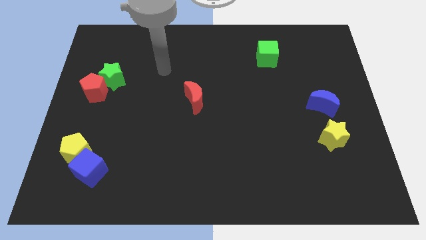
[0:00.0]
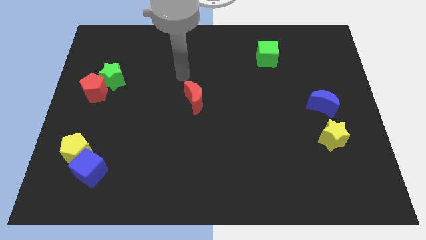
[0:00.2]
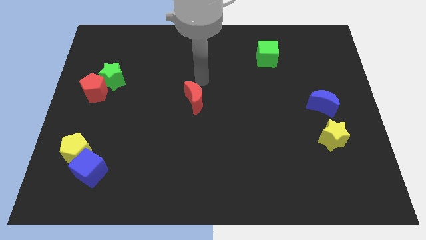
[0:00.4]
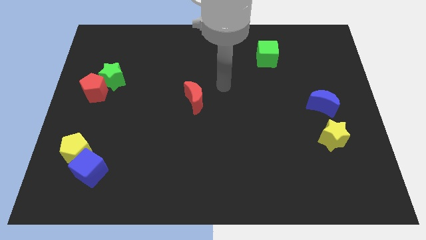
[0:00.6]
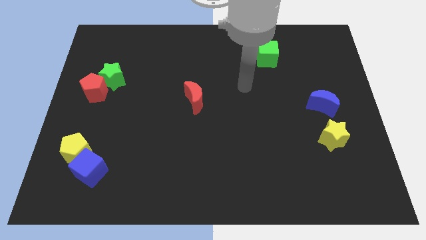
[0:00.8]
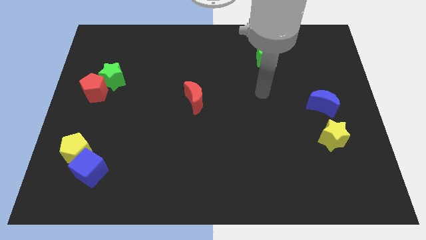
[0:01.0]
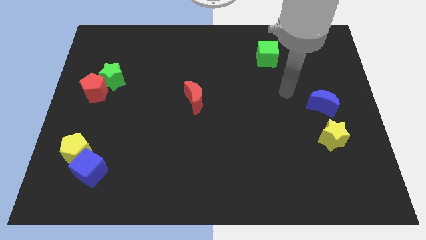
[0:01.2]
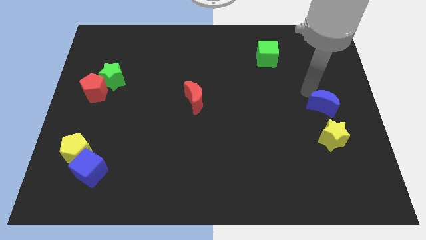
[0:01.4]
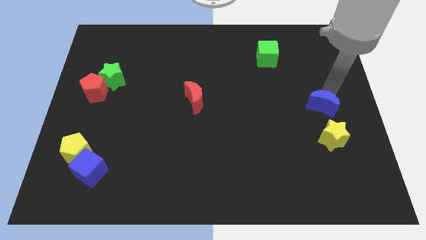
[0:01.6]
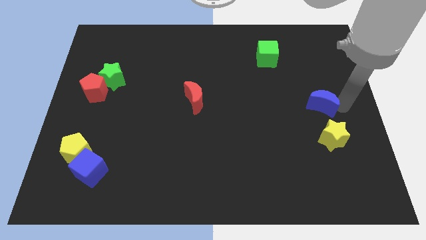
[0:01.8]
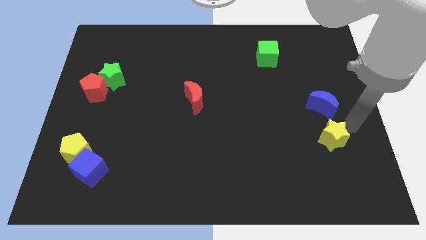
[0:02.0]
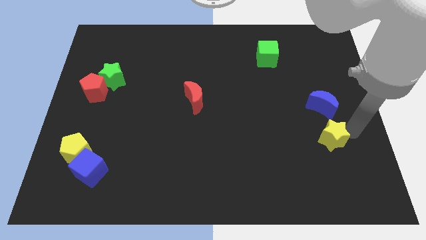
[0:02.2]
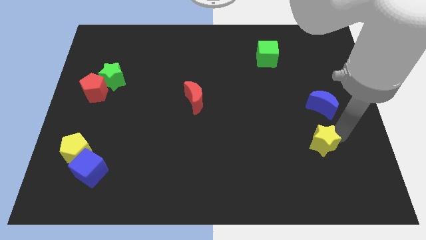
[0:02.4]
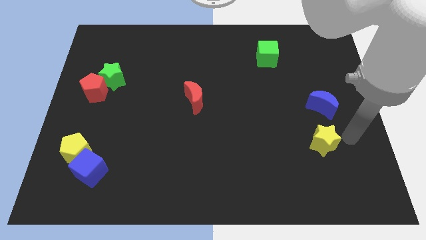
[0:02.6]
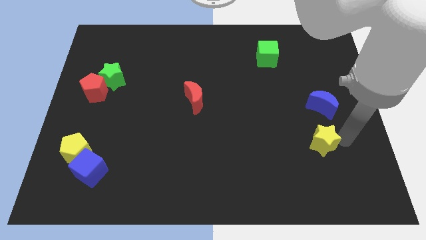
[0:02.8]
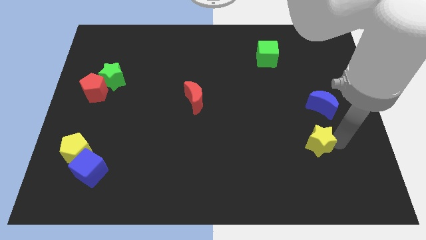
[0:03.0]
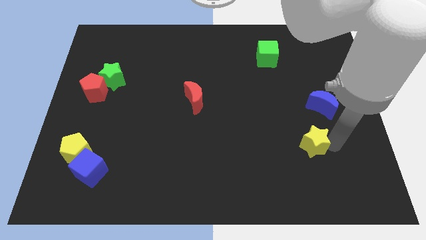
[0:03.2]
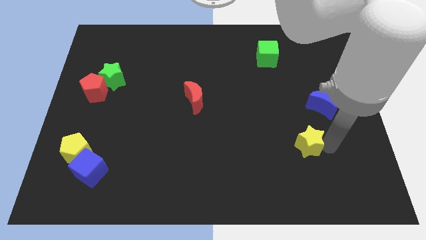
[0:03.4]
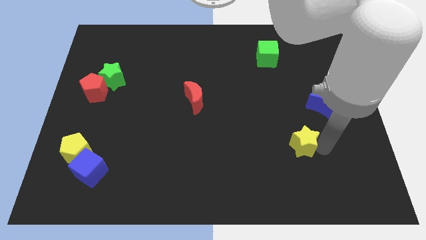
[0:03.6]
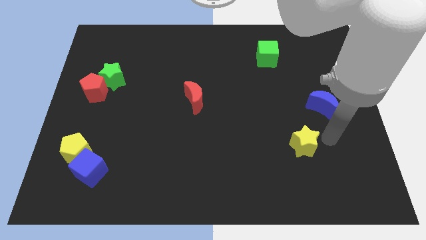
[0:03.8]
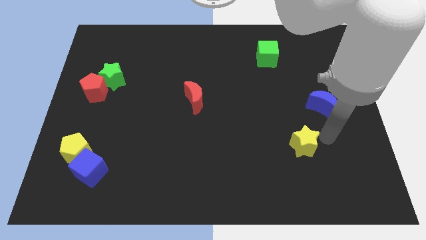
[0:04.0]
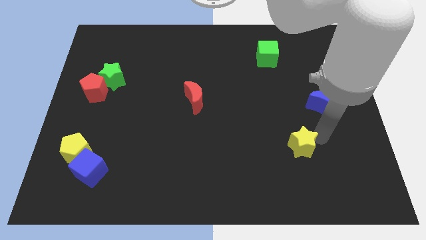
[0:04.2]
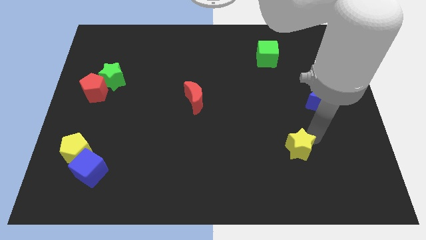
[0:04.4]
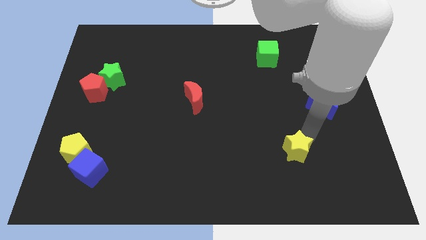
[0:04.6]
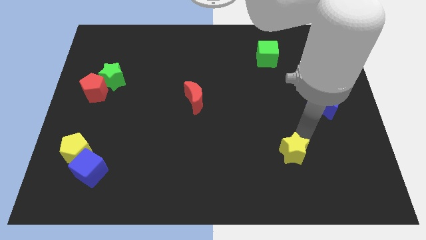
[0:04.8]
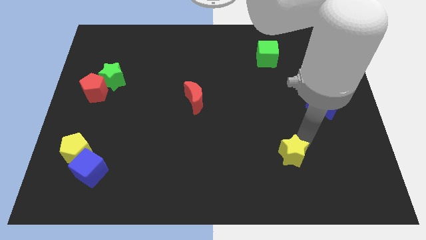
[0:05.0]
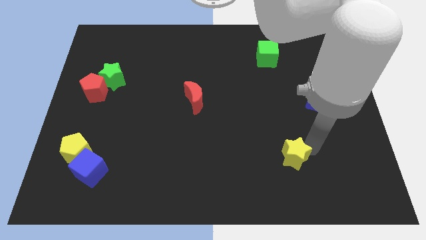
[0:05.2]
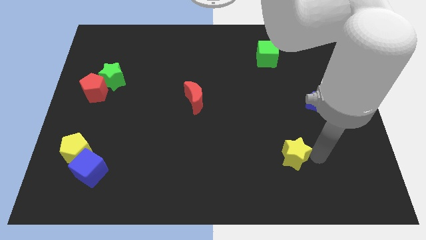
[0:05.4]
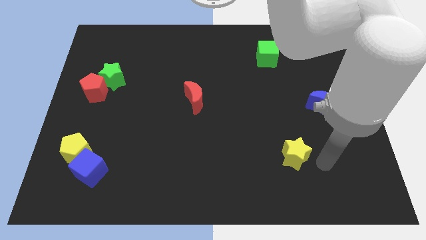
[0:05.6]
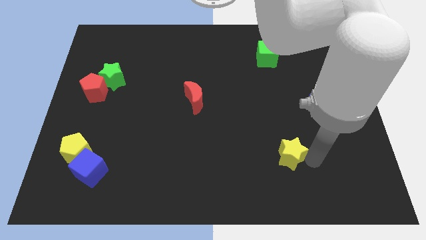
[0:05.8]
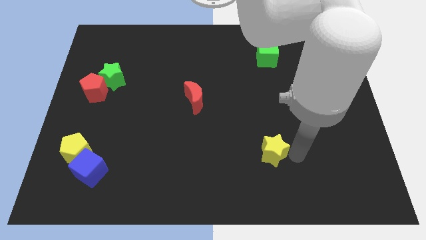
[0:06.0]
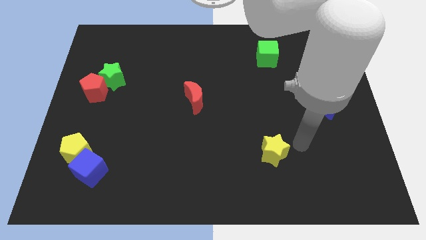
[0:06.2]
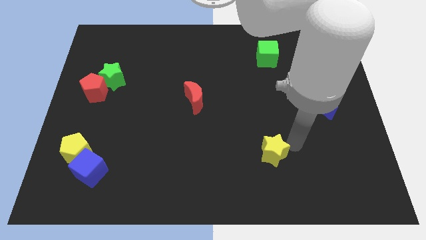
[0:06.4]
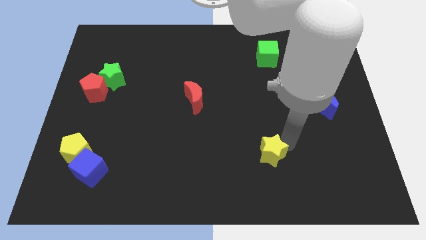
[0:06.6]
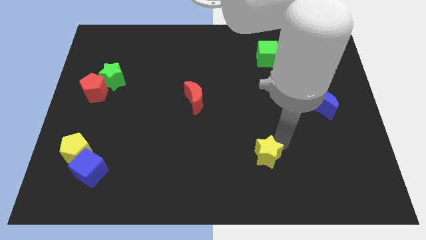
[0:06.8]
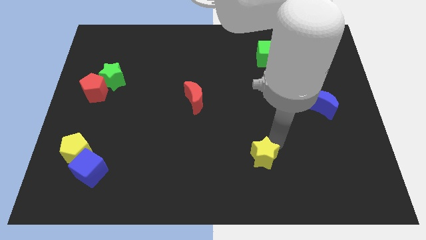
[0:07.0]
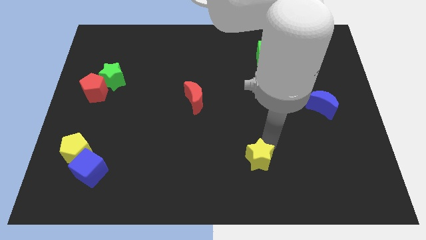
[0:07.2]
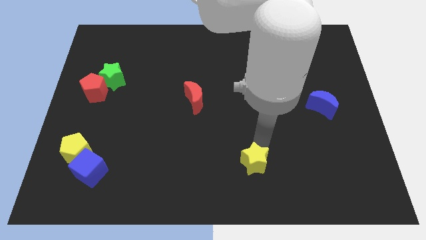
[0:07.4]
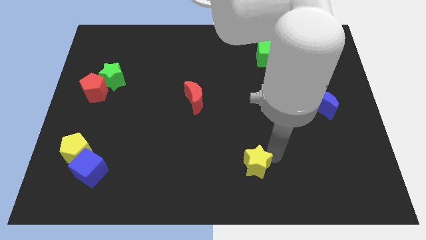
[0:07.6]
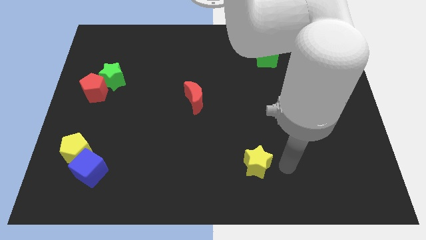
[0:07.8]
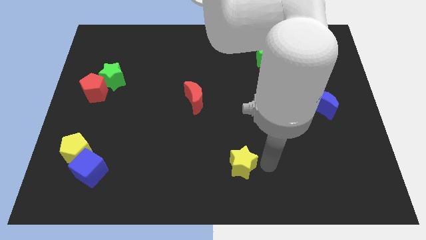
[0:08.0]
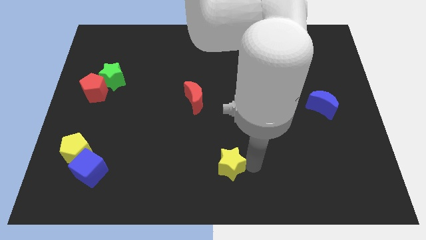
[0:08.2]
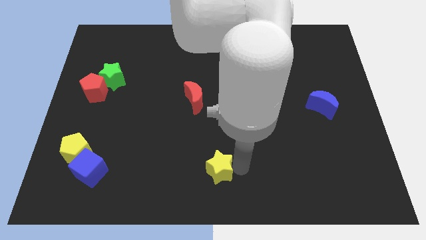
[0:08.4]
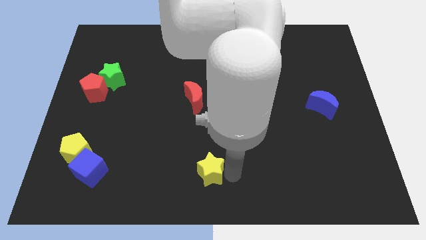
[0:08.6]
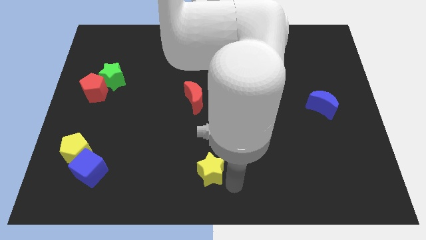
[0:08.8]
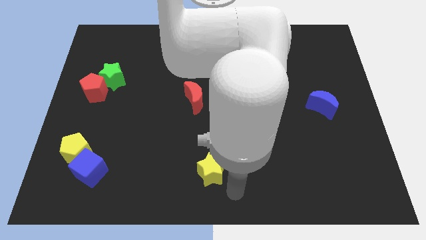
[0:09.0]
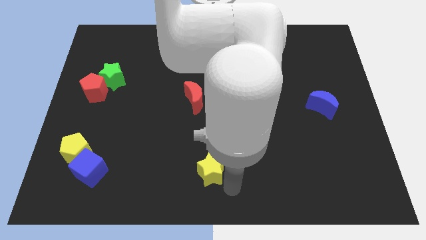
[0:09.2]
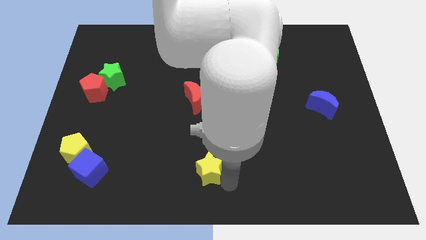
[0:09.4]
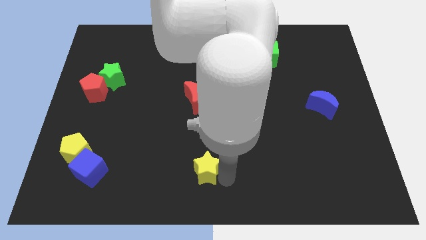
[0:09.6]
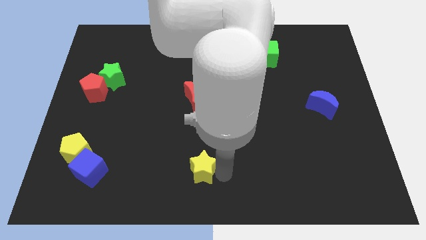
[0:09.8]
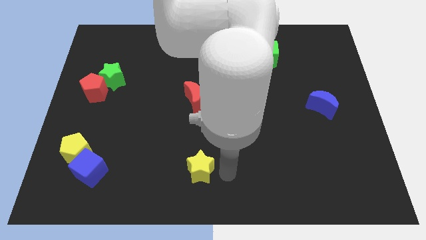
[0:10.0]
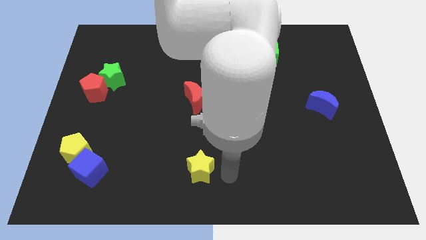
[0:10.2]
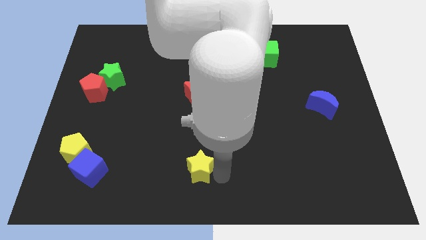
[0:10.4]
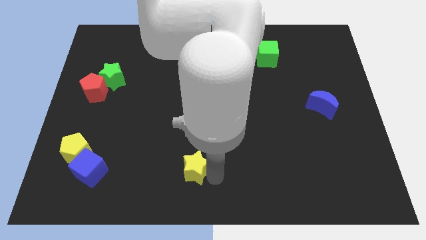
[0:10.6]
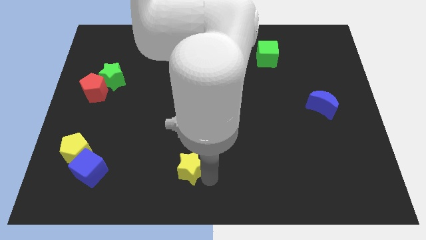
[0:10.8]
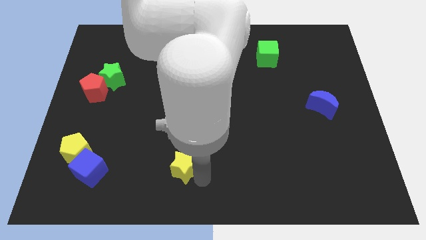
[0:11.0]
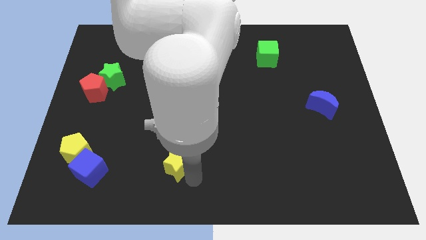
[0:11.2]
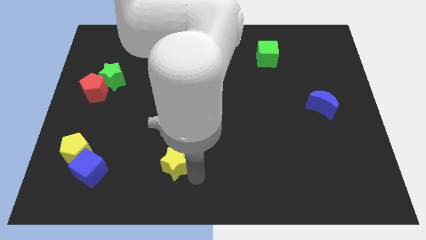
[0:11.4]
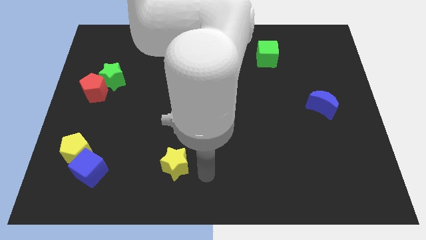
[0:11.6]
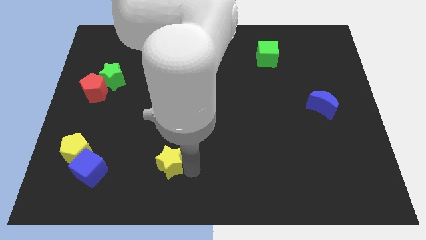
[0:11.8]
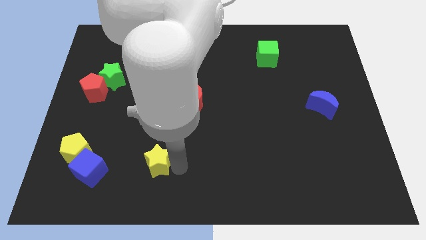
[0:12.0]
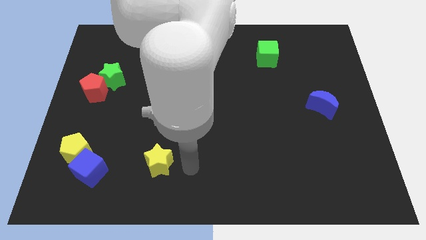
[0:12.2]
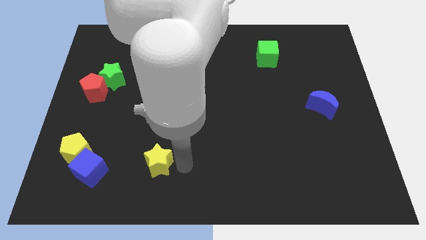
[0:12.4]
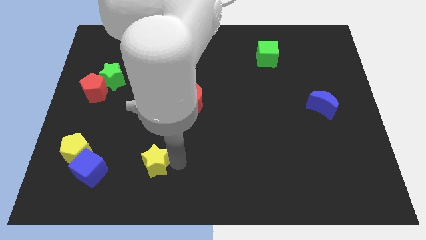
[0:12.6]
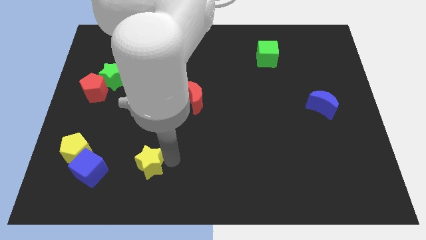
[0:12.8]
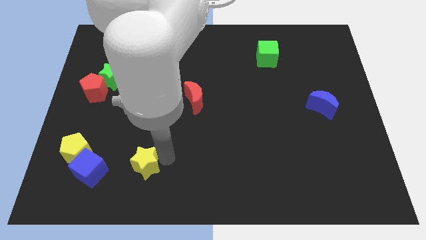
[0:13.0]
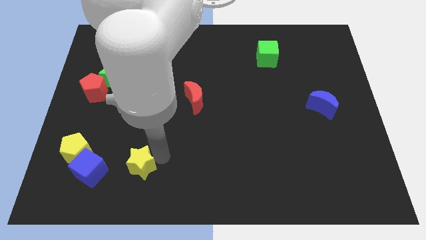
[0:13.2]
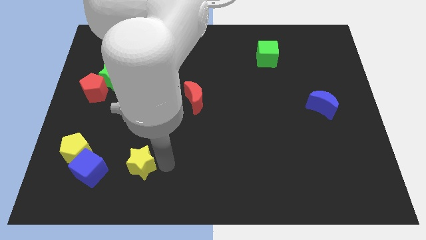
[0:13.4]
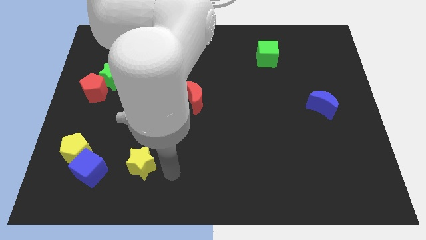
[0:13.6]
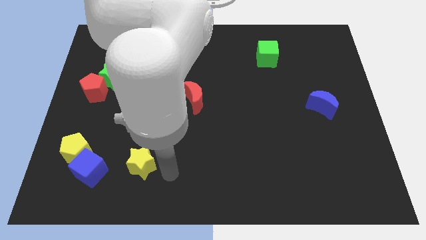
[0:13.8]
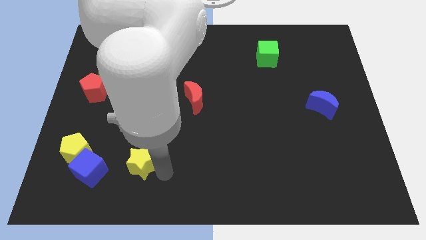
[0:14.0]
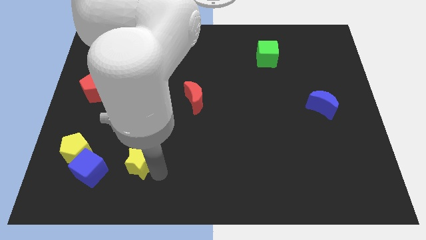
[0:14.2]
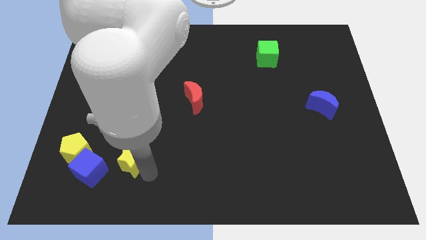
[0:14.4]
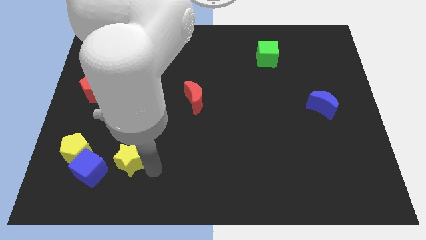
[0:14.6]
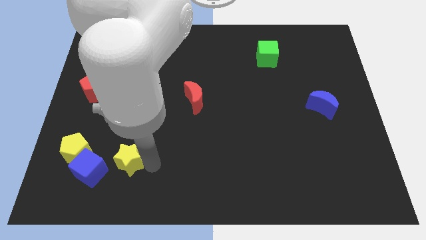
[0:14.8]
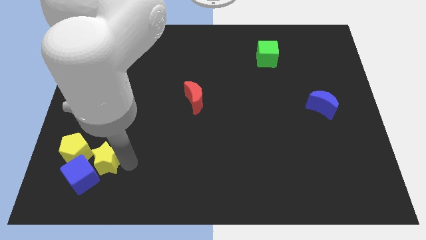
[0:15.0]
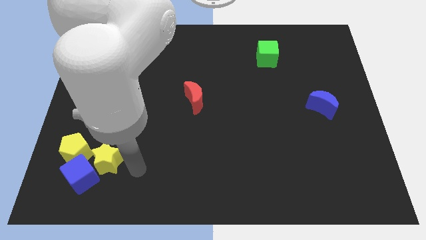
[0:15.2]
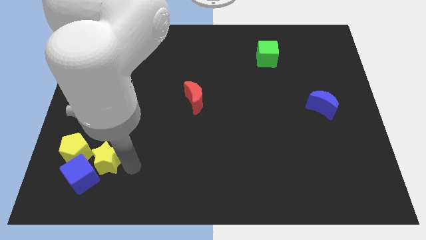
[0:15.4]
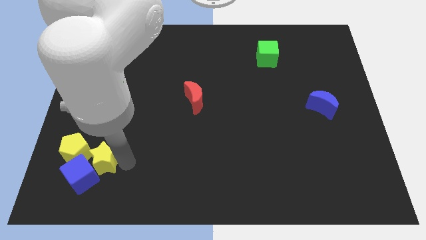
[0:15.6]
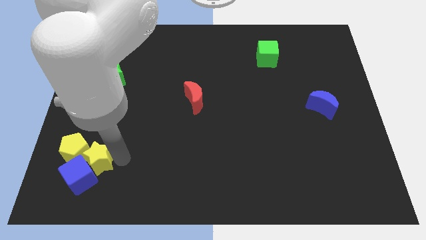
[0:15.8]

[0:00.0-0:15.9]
put the yellow star to the yellow pentagon
